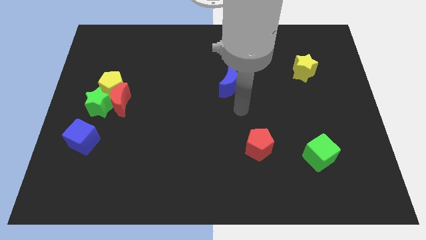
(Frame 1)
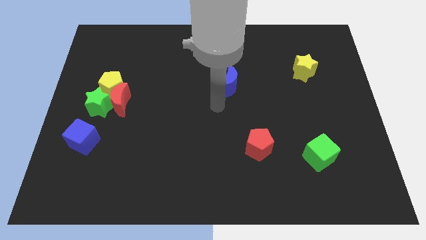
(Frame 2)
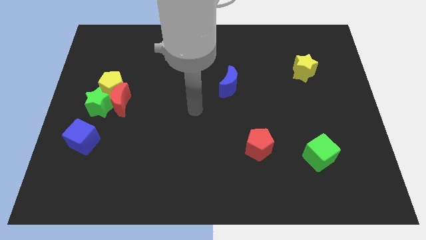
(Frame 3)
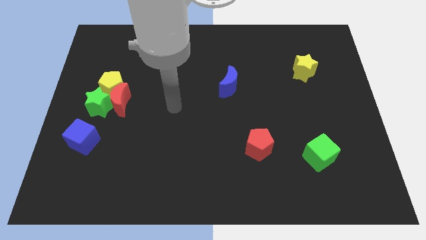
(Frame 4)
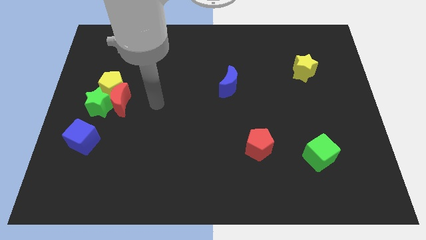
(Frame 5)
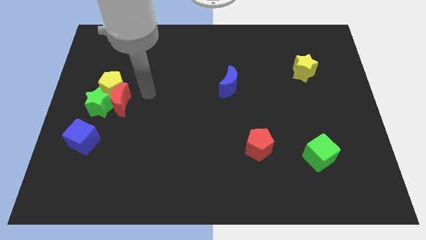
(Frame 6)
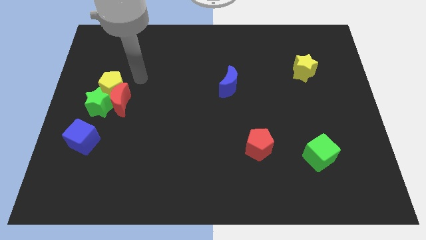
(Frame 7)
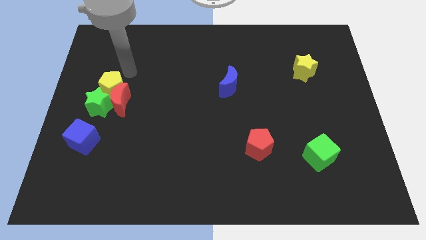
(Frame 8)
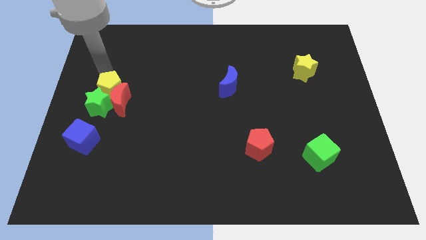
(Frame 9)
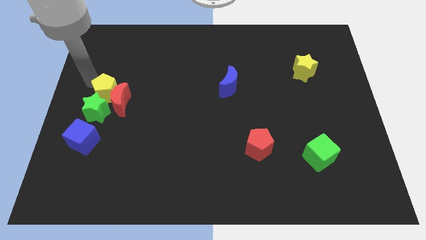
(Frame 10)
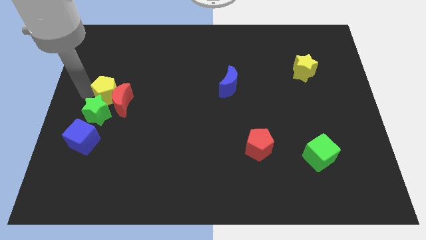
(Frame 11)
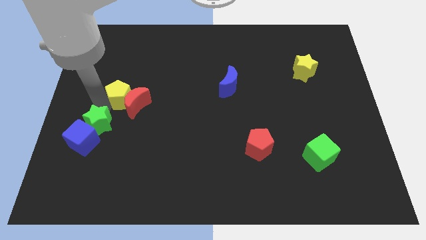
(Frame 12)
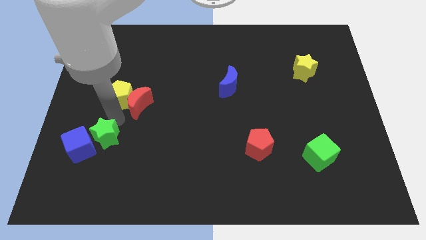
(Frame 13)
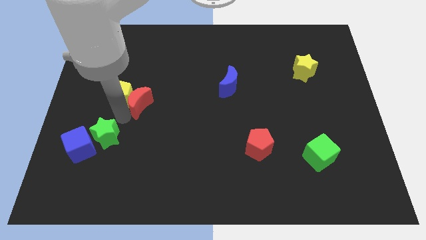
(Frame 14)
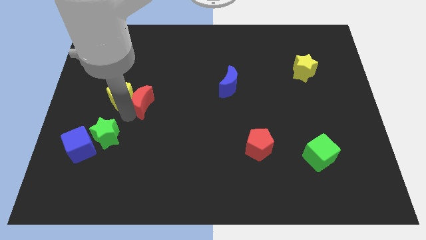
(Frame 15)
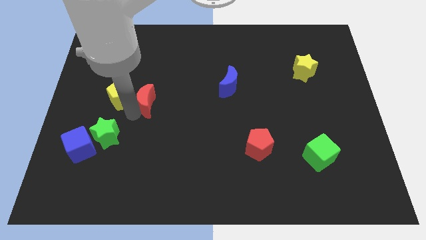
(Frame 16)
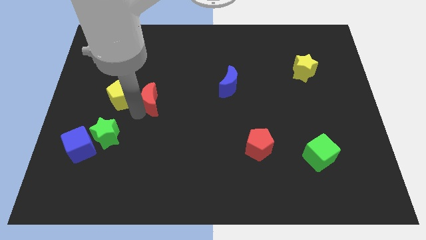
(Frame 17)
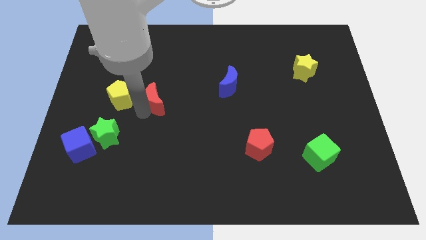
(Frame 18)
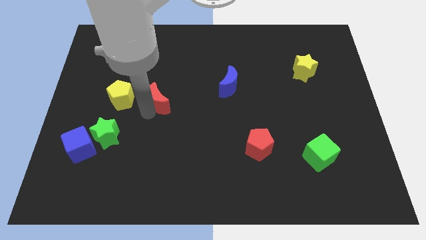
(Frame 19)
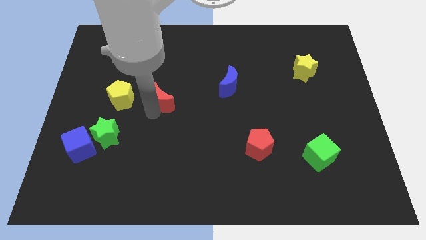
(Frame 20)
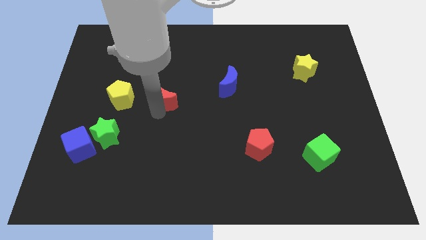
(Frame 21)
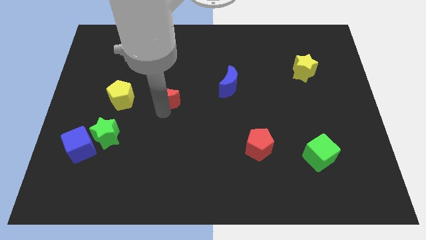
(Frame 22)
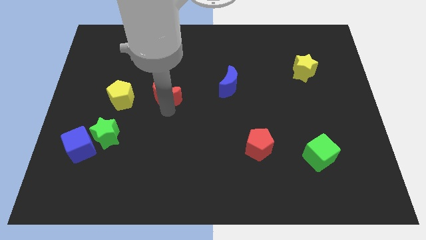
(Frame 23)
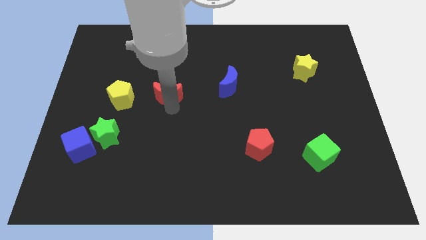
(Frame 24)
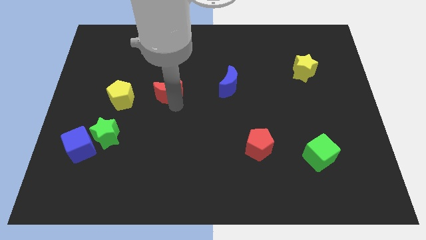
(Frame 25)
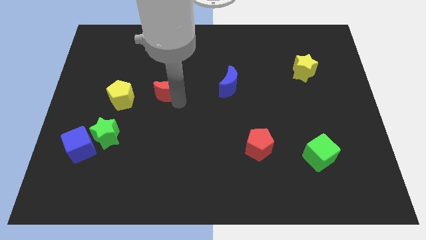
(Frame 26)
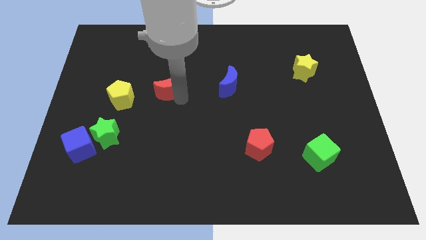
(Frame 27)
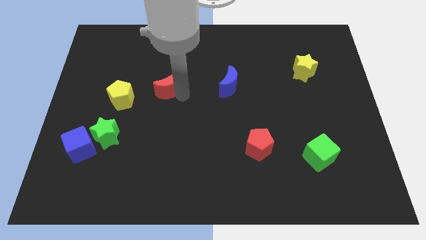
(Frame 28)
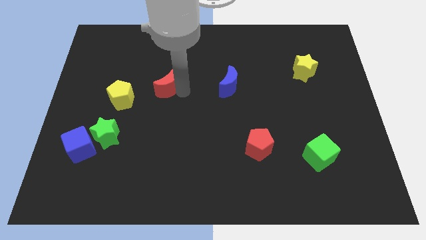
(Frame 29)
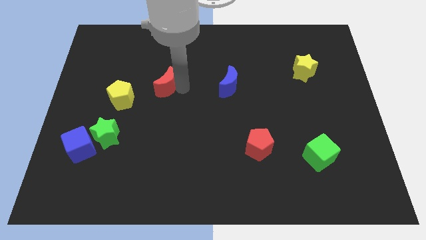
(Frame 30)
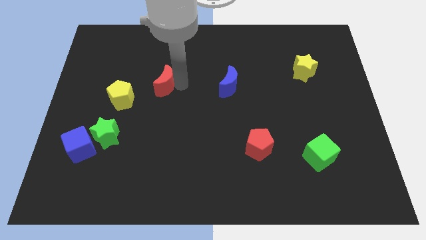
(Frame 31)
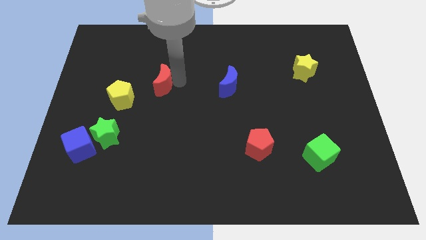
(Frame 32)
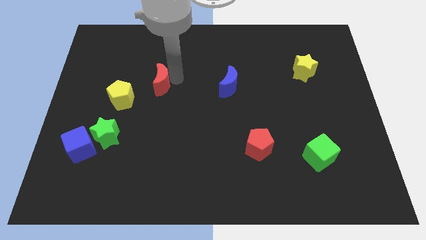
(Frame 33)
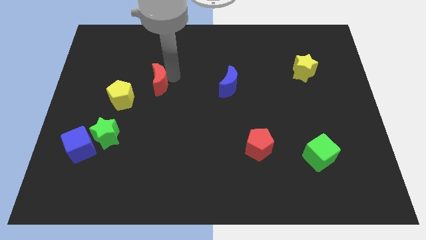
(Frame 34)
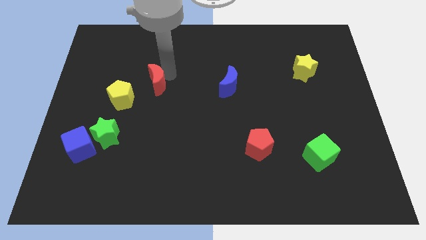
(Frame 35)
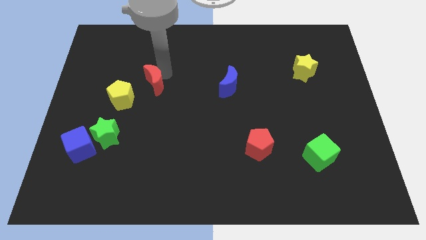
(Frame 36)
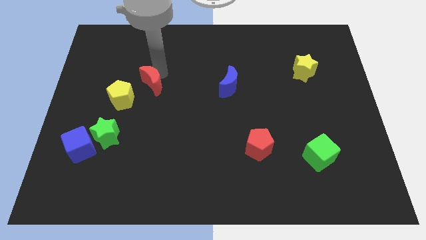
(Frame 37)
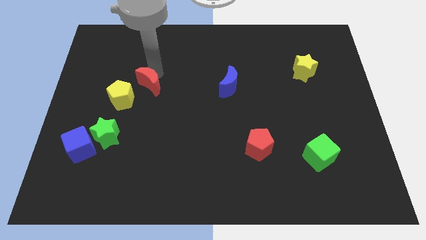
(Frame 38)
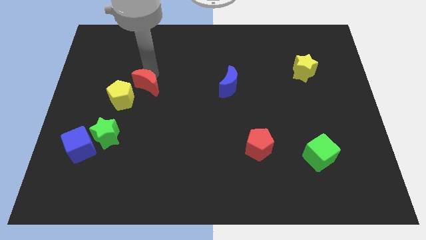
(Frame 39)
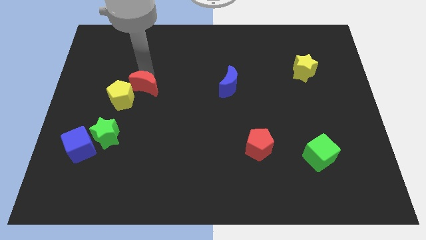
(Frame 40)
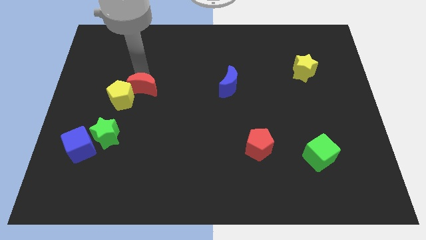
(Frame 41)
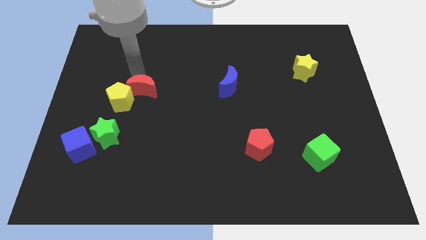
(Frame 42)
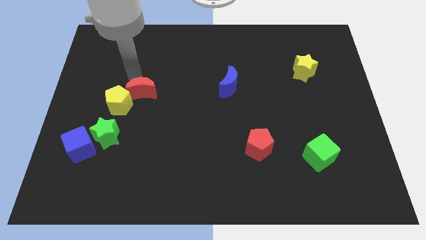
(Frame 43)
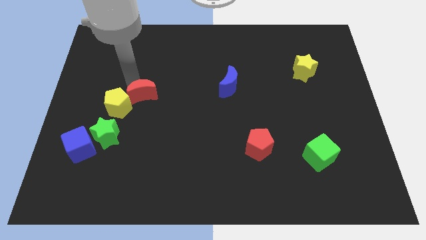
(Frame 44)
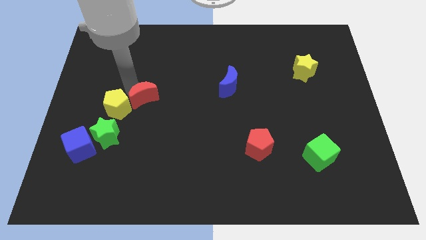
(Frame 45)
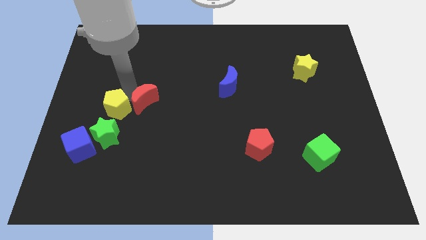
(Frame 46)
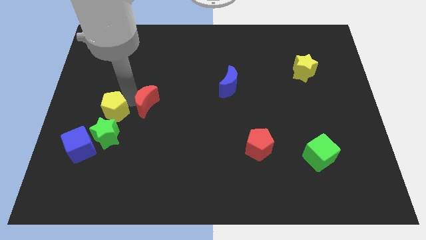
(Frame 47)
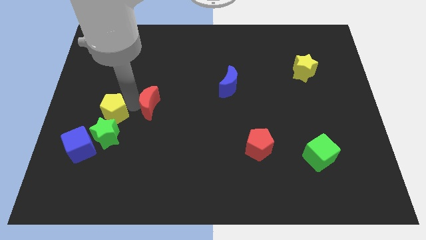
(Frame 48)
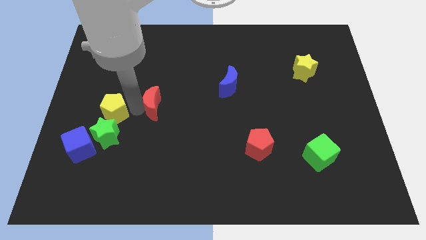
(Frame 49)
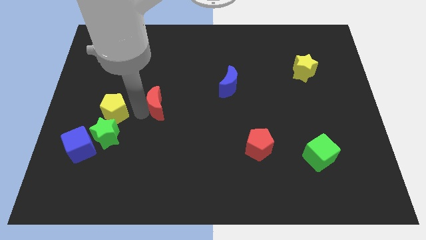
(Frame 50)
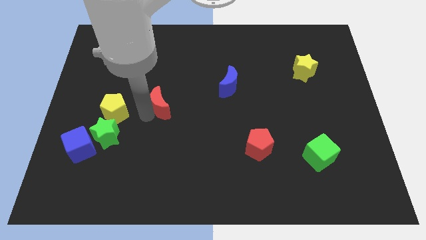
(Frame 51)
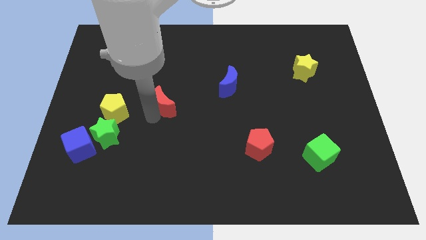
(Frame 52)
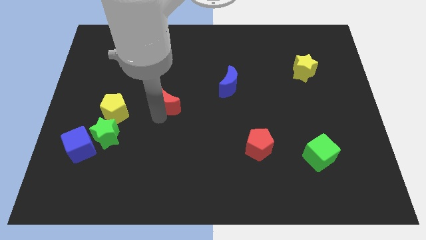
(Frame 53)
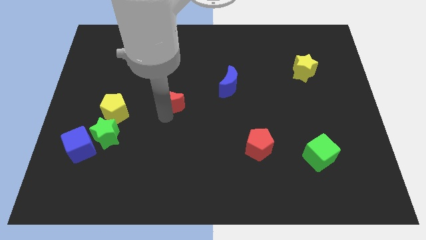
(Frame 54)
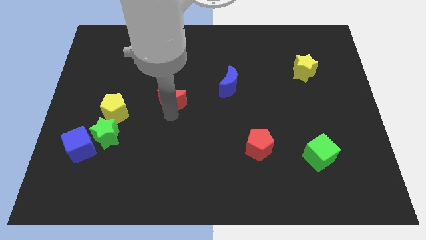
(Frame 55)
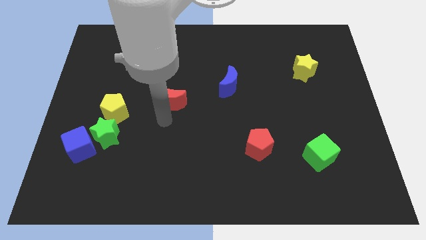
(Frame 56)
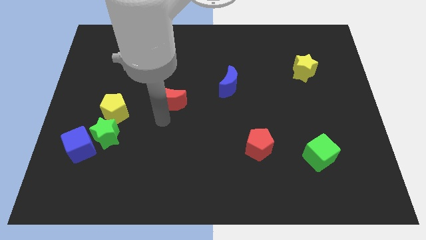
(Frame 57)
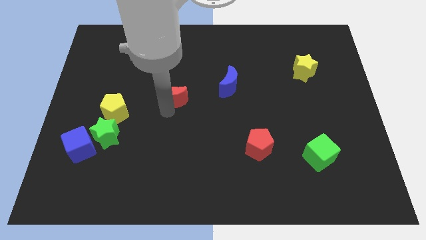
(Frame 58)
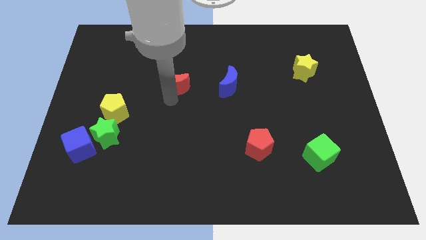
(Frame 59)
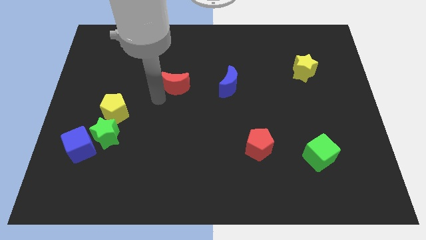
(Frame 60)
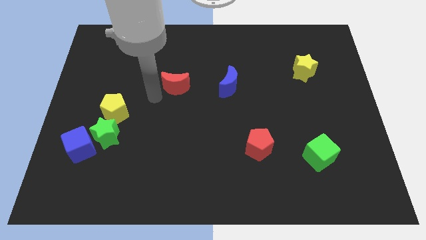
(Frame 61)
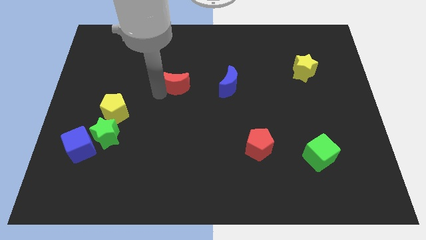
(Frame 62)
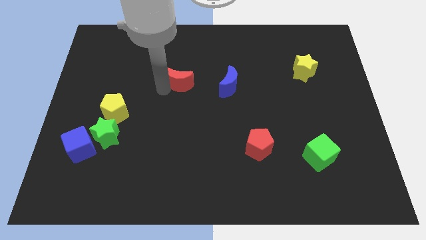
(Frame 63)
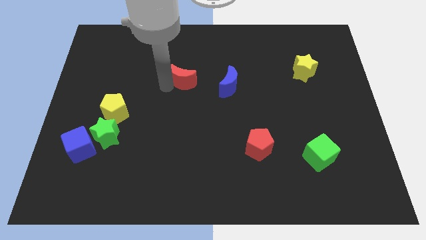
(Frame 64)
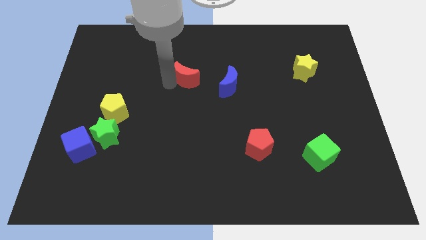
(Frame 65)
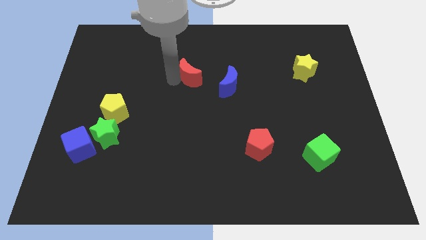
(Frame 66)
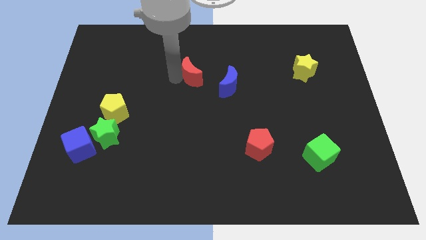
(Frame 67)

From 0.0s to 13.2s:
push the red moon diagonally up and to the left of the blue moon
